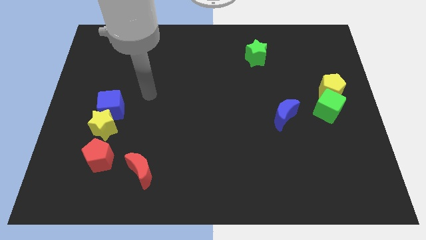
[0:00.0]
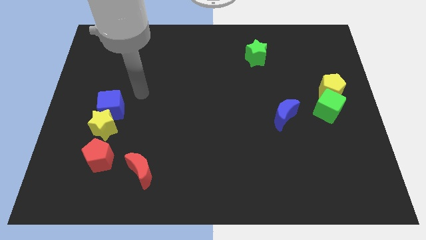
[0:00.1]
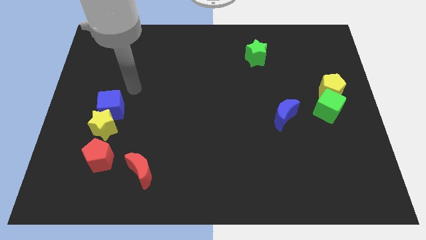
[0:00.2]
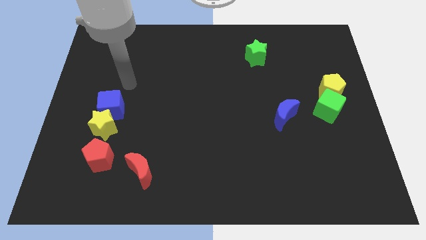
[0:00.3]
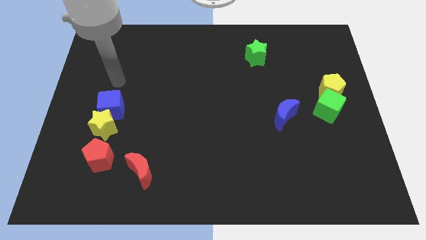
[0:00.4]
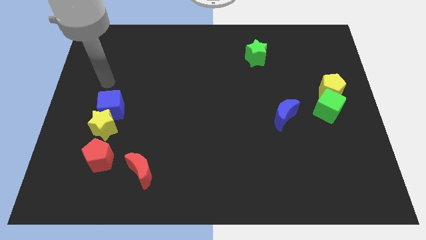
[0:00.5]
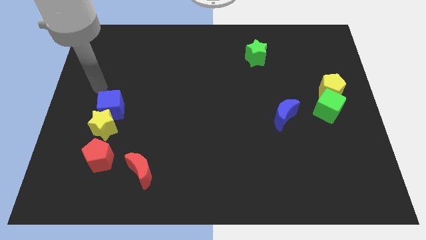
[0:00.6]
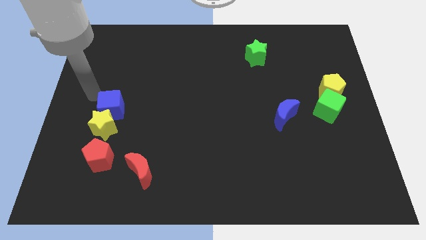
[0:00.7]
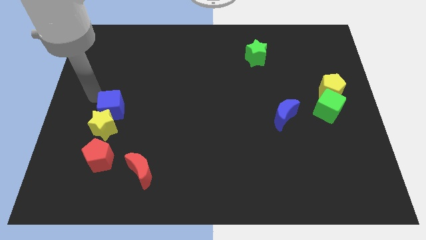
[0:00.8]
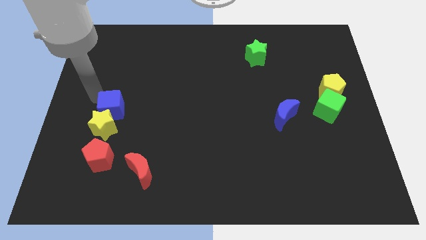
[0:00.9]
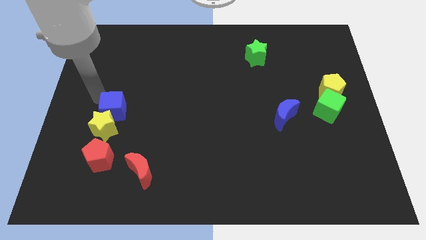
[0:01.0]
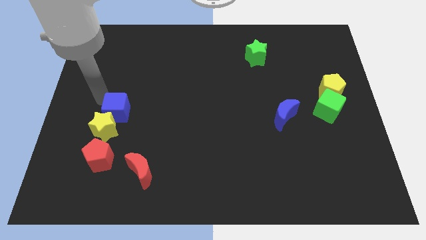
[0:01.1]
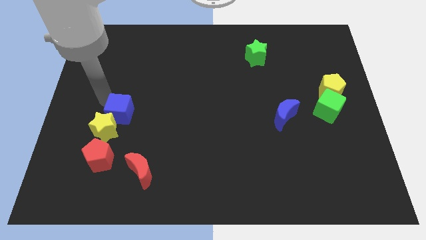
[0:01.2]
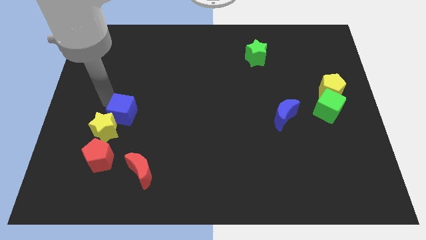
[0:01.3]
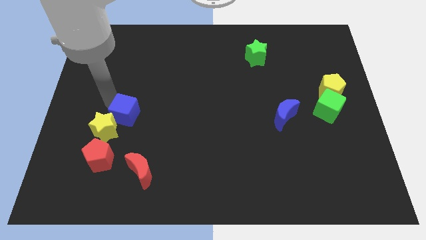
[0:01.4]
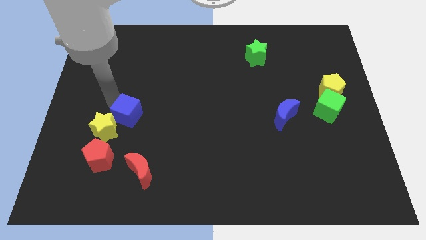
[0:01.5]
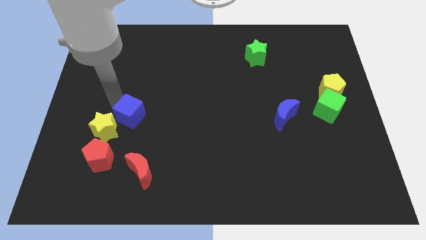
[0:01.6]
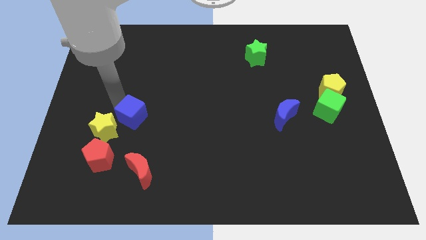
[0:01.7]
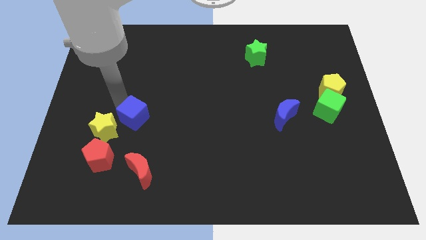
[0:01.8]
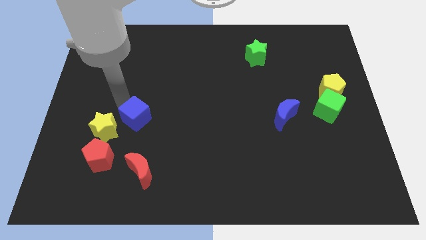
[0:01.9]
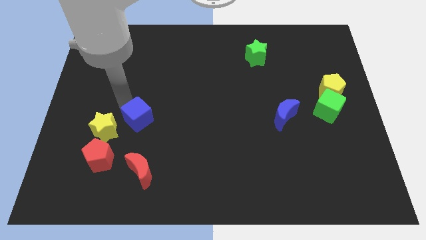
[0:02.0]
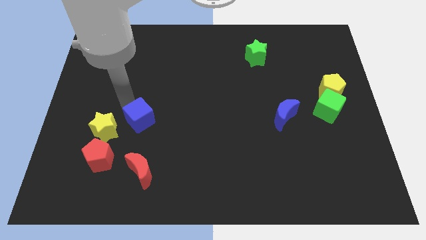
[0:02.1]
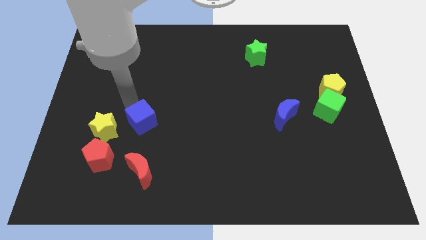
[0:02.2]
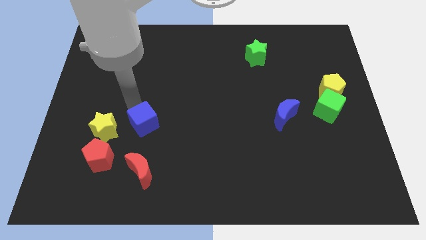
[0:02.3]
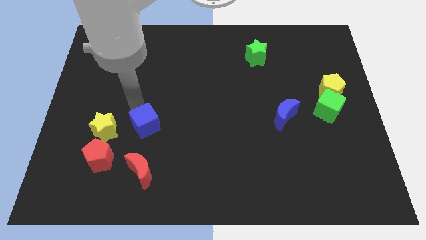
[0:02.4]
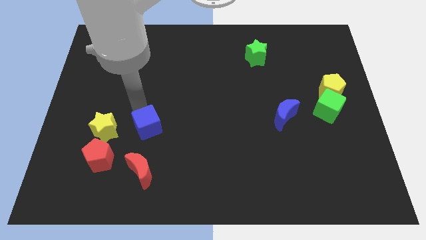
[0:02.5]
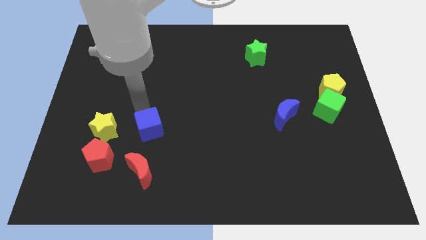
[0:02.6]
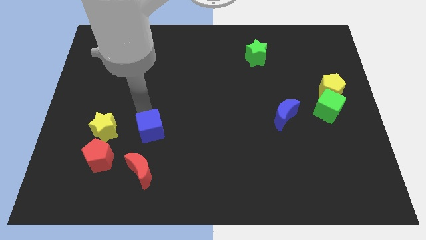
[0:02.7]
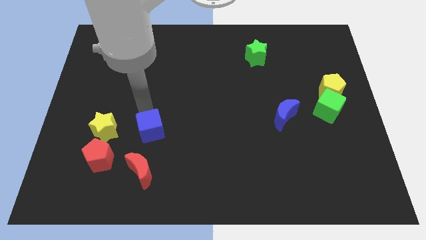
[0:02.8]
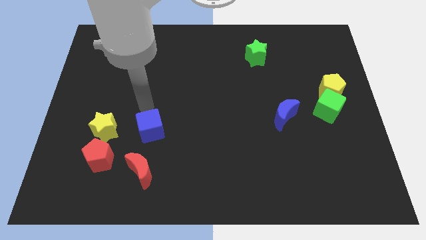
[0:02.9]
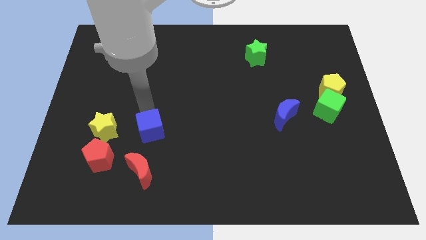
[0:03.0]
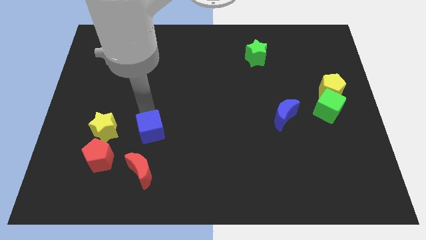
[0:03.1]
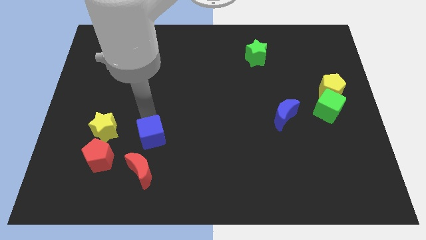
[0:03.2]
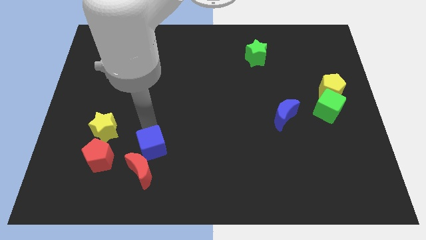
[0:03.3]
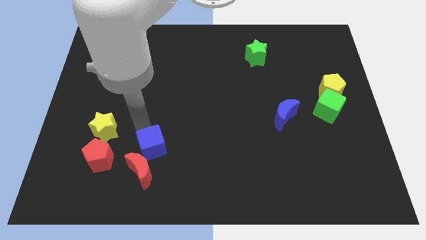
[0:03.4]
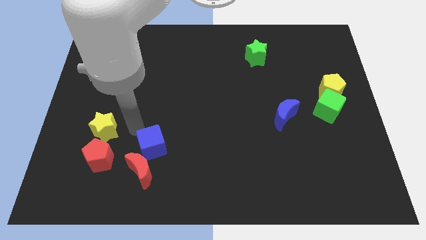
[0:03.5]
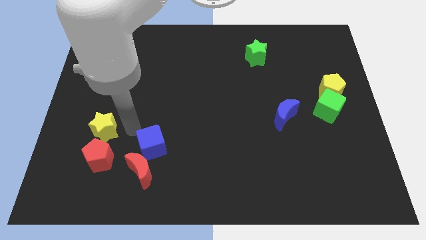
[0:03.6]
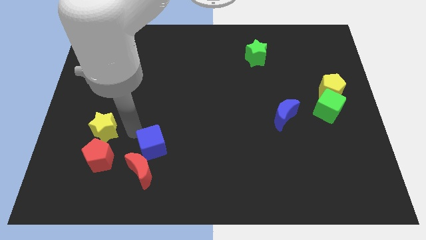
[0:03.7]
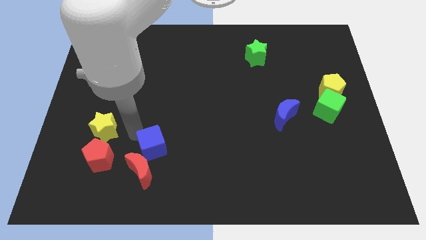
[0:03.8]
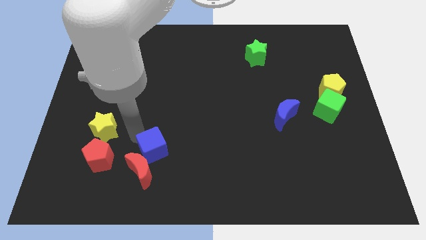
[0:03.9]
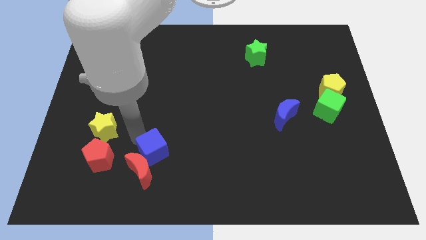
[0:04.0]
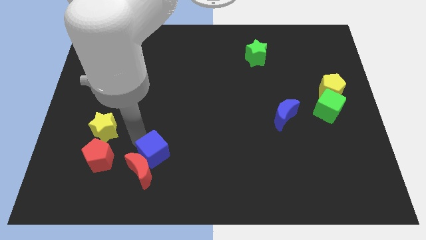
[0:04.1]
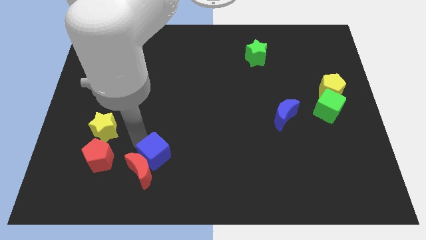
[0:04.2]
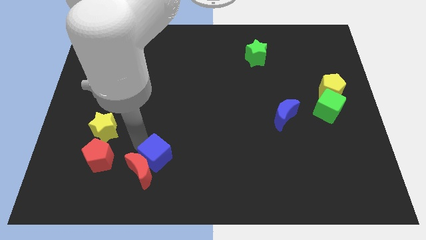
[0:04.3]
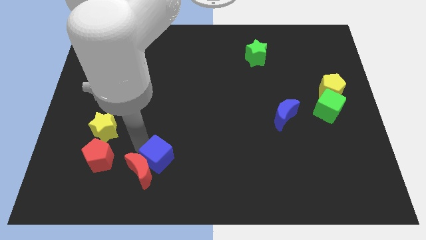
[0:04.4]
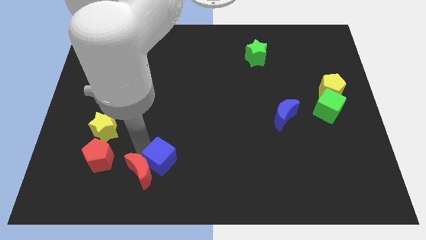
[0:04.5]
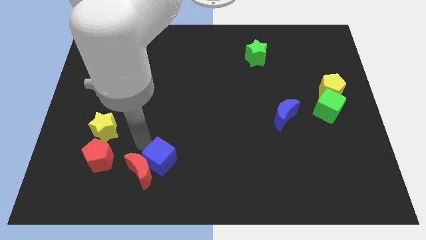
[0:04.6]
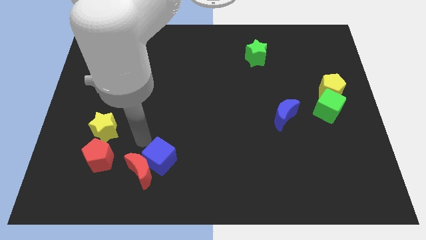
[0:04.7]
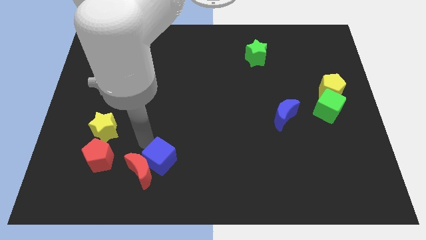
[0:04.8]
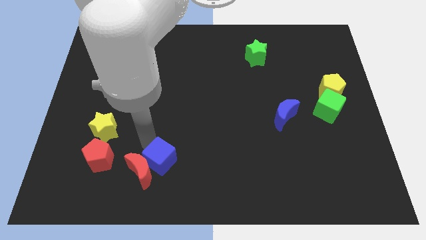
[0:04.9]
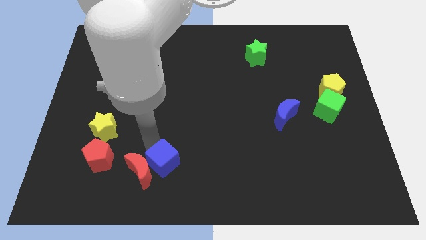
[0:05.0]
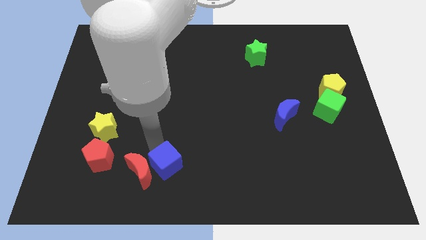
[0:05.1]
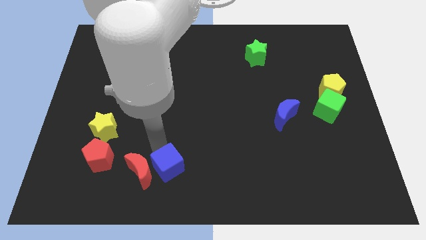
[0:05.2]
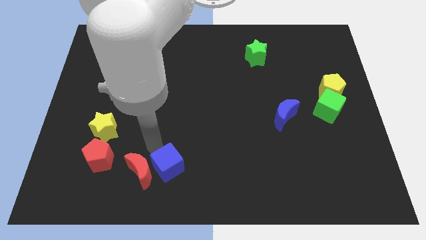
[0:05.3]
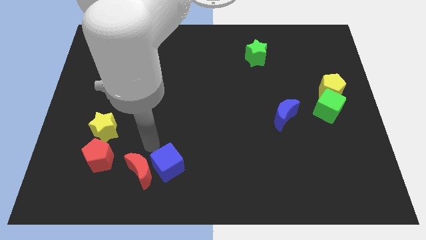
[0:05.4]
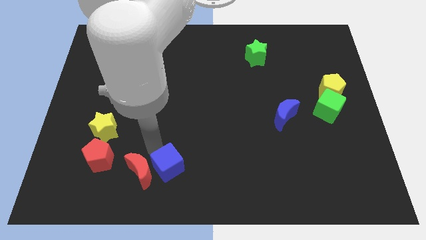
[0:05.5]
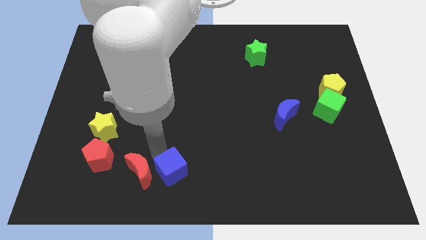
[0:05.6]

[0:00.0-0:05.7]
move the blue cube to the bottom

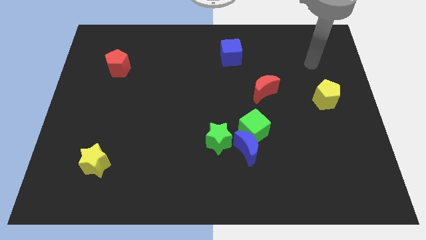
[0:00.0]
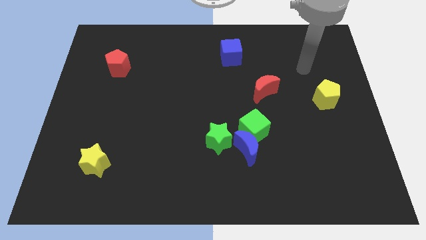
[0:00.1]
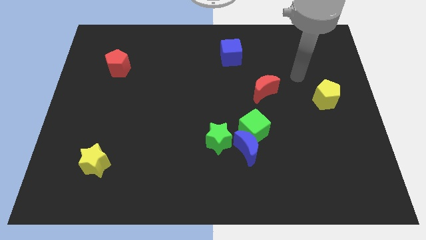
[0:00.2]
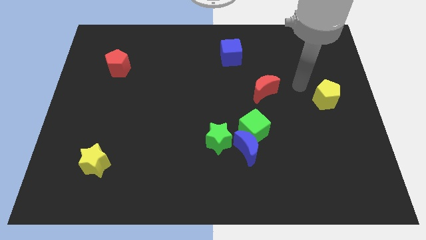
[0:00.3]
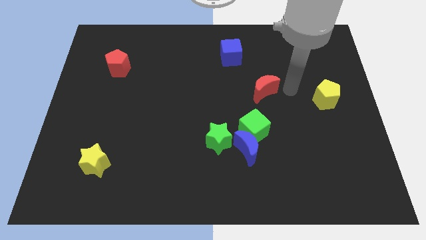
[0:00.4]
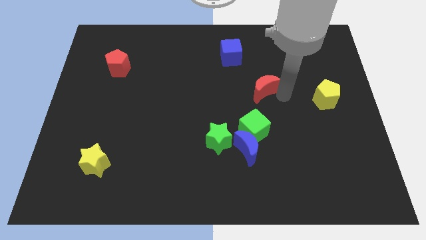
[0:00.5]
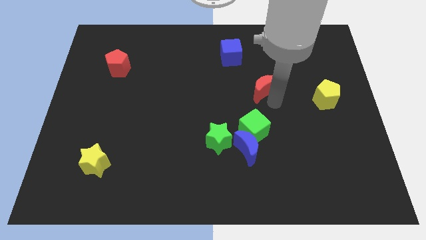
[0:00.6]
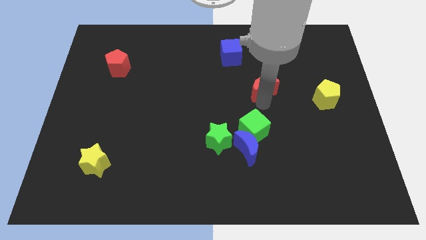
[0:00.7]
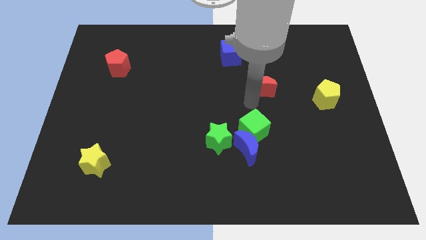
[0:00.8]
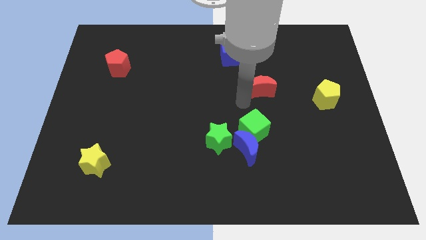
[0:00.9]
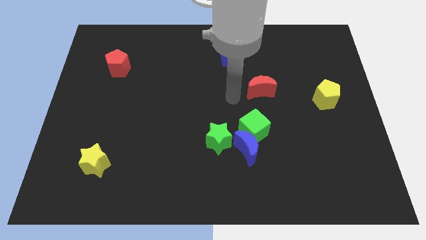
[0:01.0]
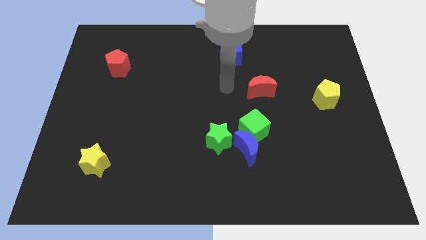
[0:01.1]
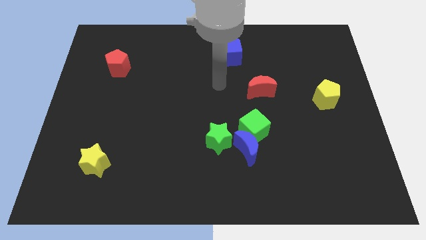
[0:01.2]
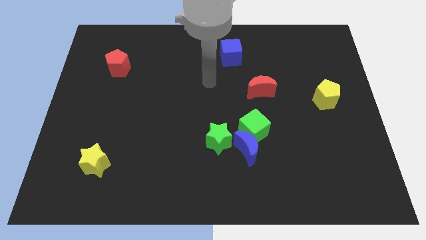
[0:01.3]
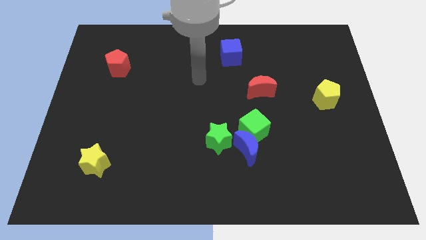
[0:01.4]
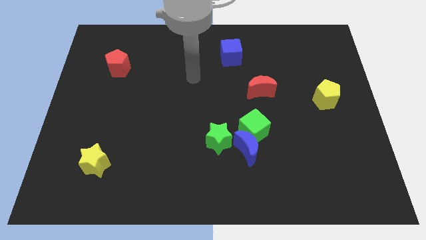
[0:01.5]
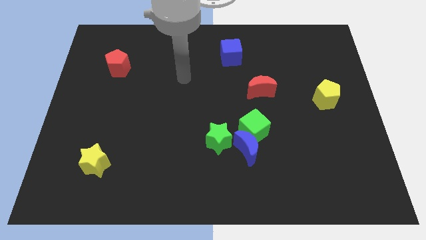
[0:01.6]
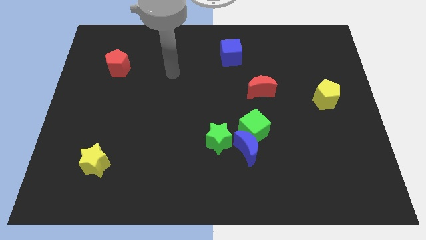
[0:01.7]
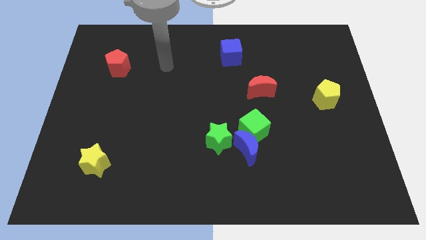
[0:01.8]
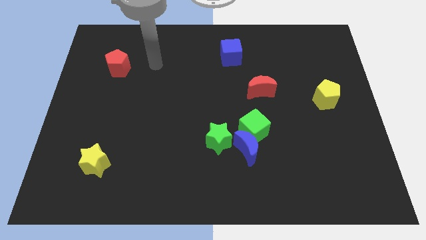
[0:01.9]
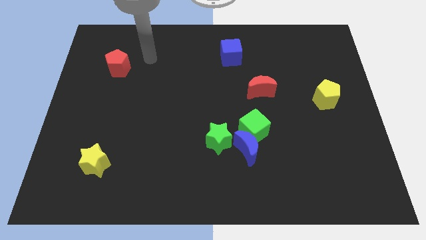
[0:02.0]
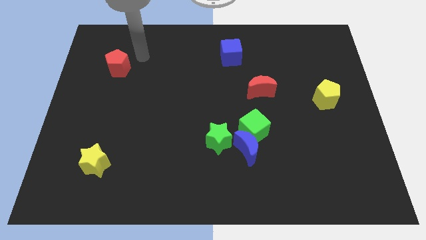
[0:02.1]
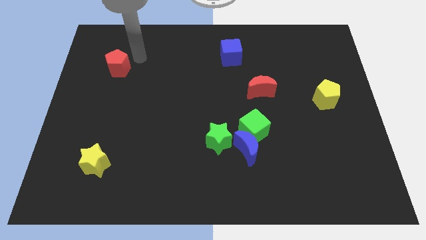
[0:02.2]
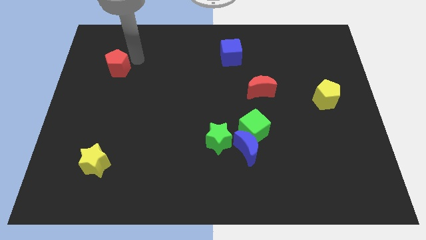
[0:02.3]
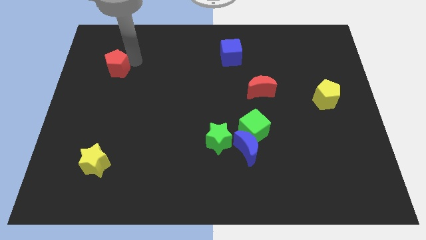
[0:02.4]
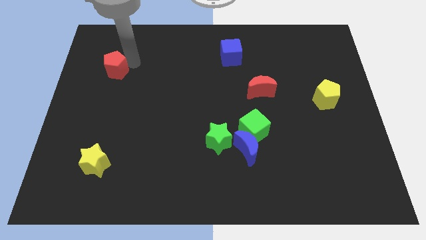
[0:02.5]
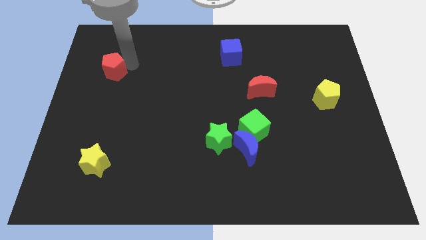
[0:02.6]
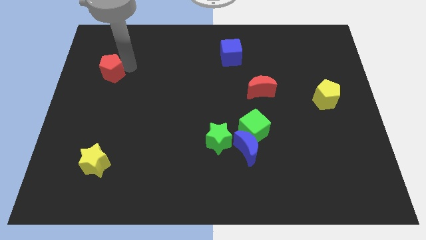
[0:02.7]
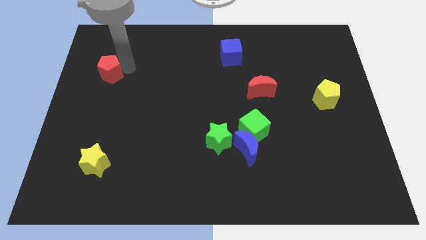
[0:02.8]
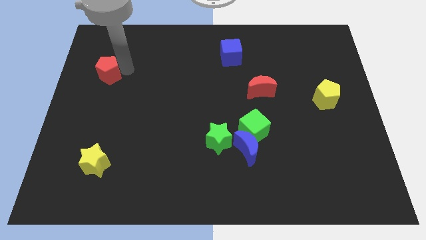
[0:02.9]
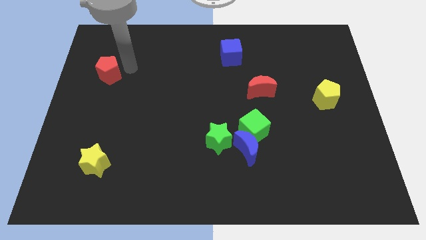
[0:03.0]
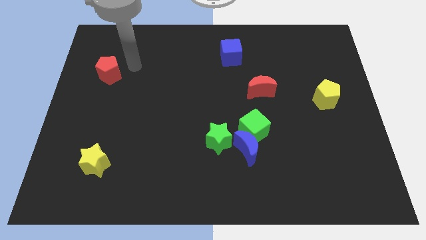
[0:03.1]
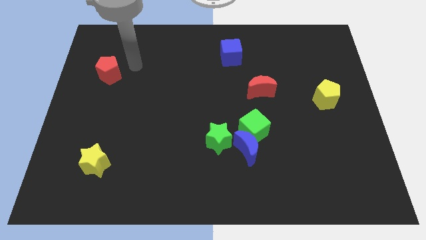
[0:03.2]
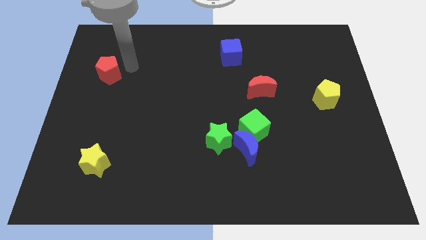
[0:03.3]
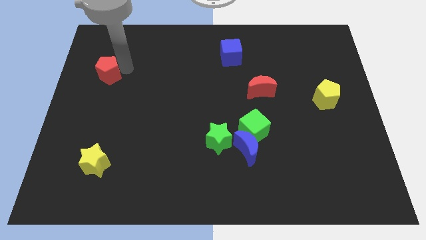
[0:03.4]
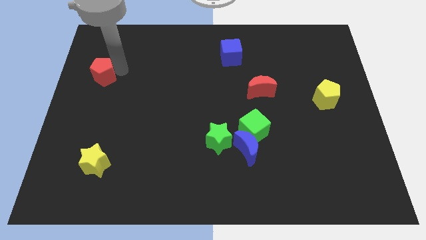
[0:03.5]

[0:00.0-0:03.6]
move the red pentagon to the center left
